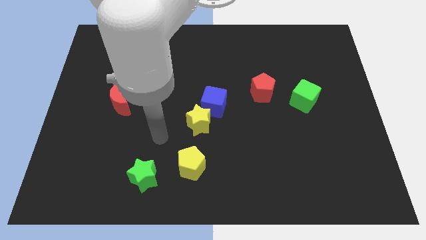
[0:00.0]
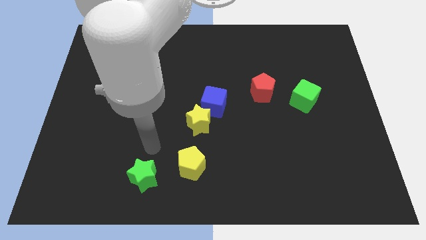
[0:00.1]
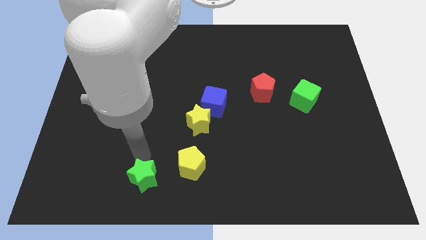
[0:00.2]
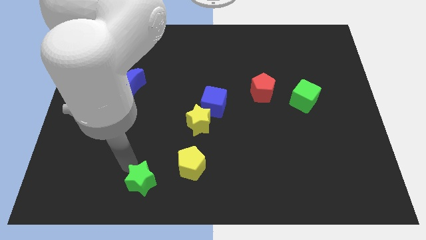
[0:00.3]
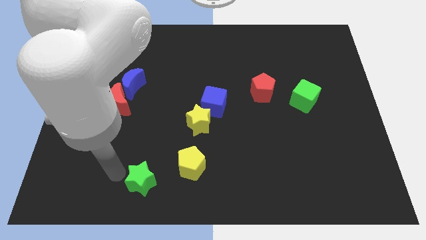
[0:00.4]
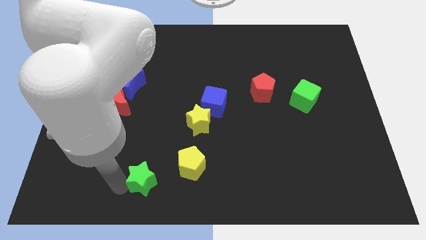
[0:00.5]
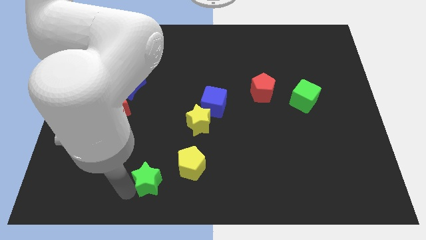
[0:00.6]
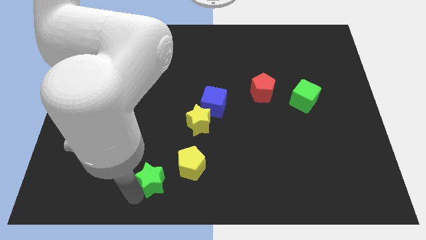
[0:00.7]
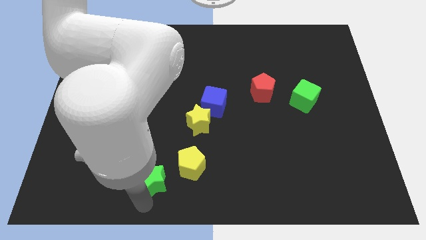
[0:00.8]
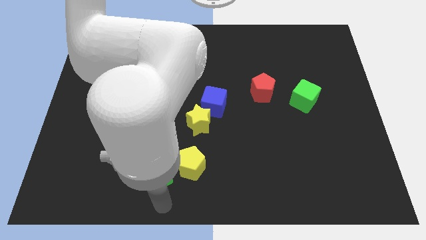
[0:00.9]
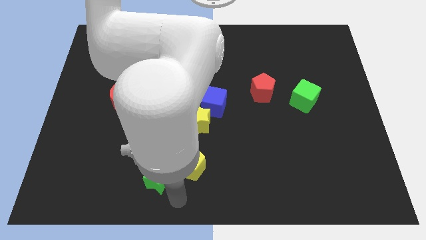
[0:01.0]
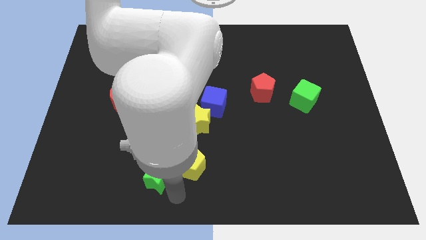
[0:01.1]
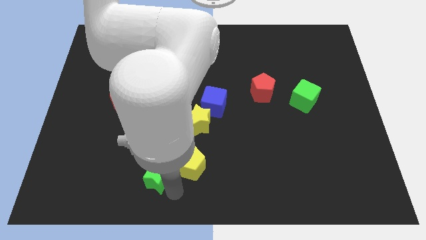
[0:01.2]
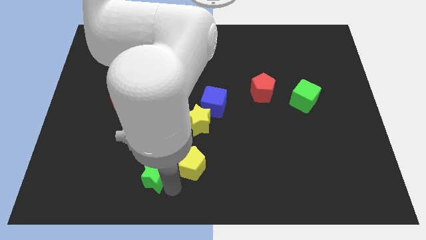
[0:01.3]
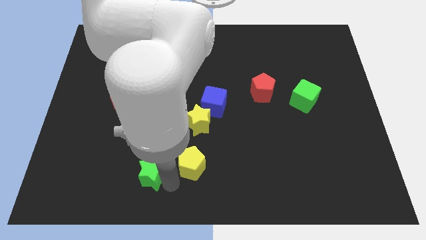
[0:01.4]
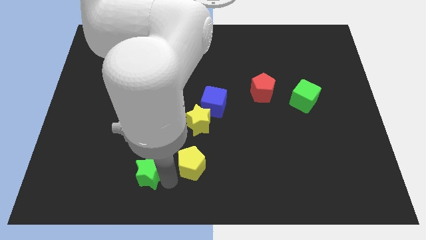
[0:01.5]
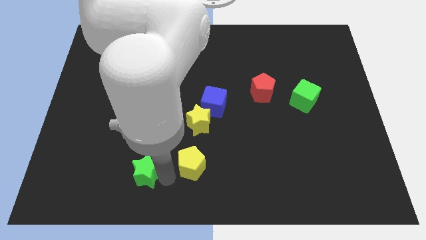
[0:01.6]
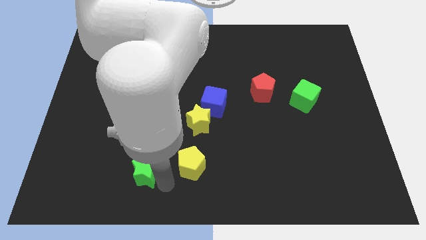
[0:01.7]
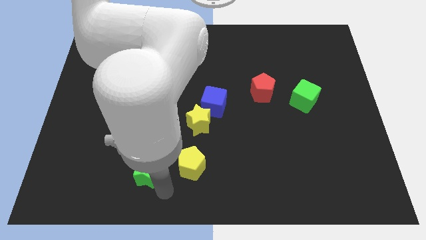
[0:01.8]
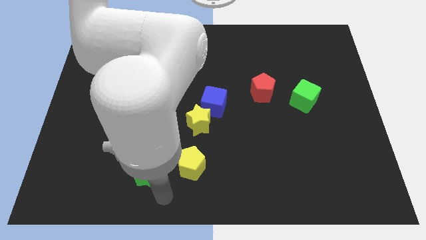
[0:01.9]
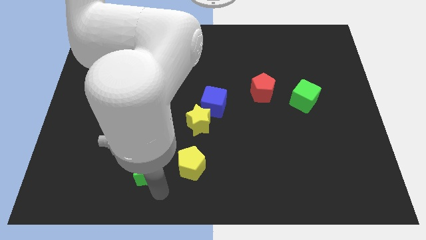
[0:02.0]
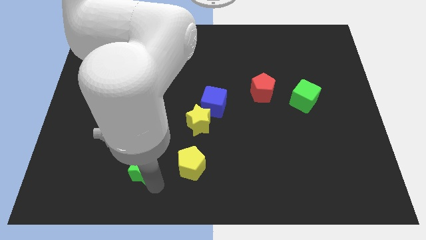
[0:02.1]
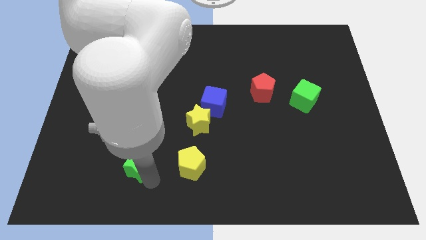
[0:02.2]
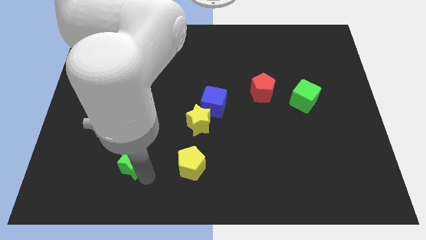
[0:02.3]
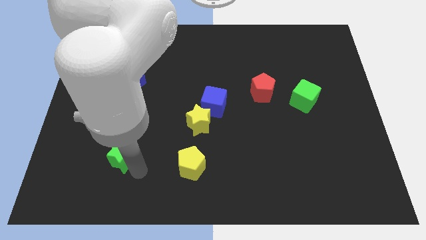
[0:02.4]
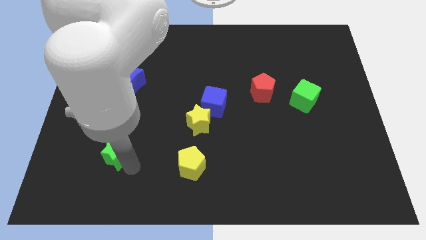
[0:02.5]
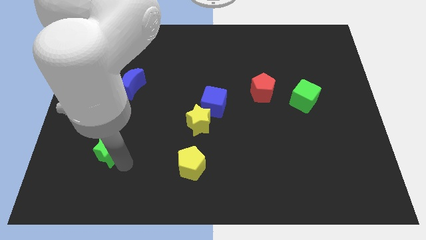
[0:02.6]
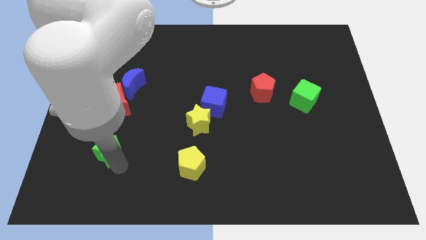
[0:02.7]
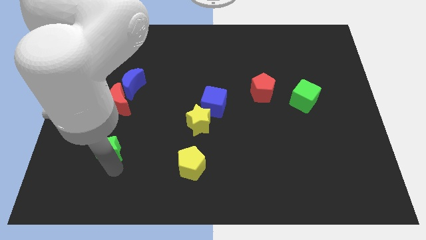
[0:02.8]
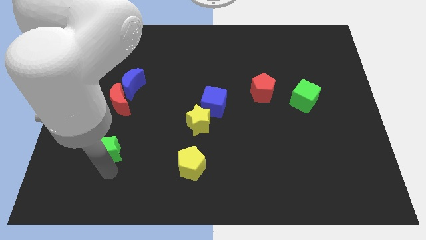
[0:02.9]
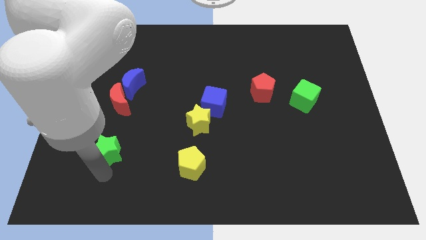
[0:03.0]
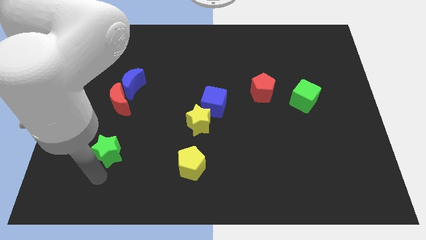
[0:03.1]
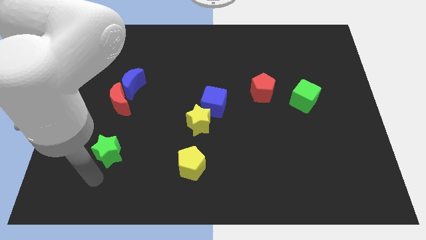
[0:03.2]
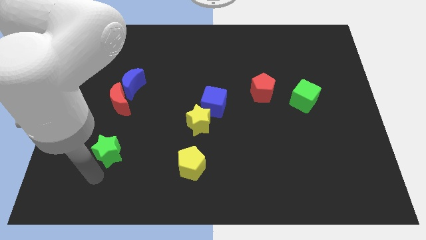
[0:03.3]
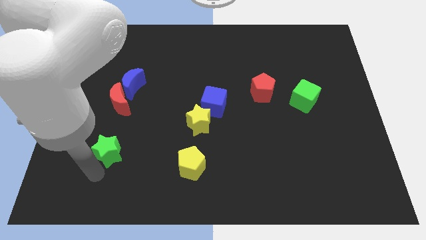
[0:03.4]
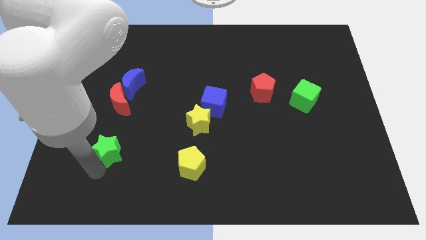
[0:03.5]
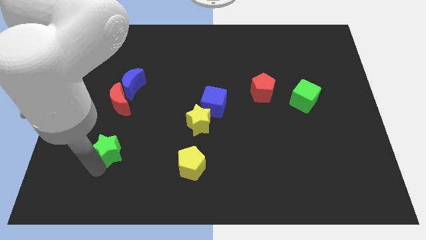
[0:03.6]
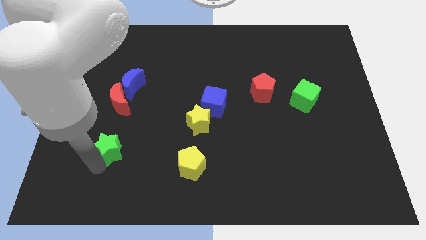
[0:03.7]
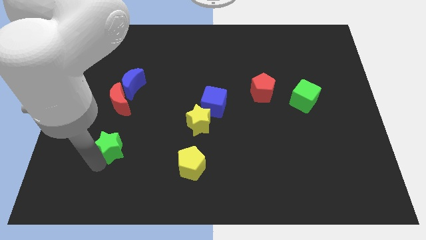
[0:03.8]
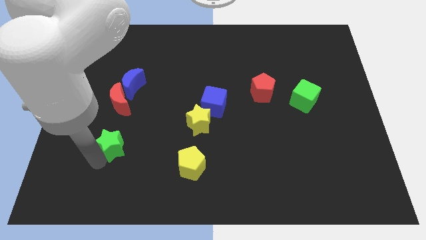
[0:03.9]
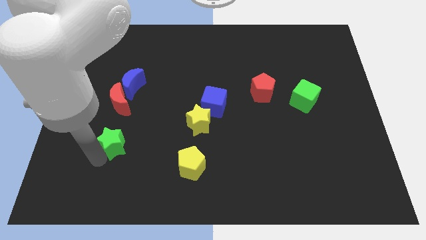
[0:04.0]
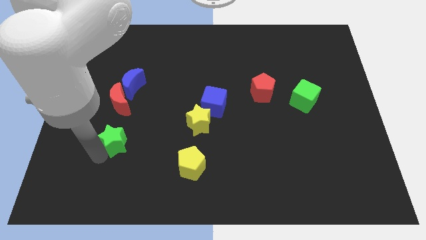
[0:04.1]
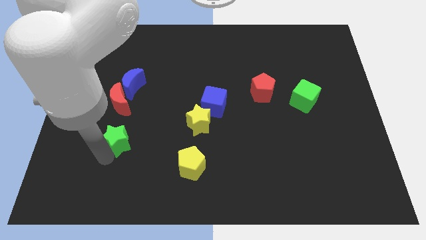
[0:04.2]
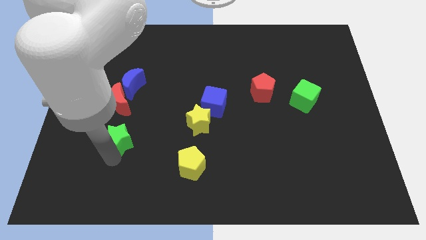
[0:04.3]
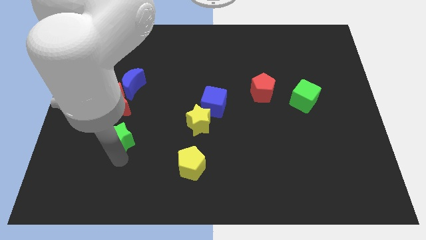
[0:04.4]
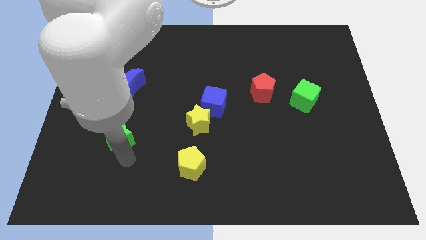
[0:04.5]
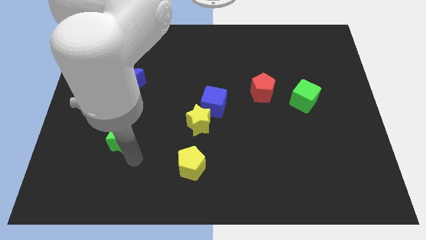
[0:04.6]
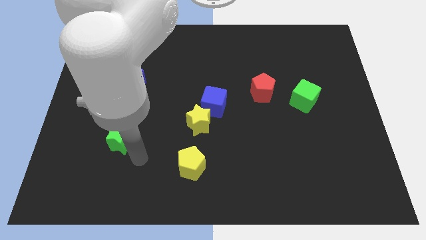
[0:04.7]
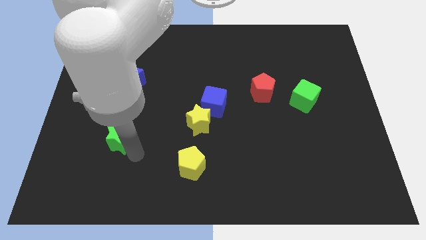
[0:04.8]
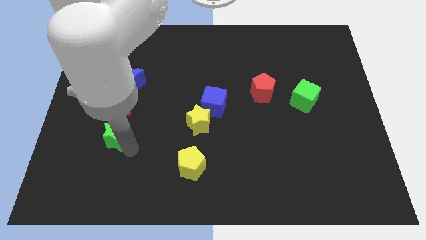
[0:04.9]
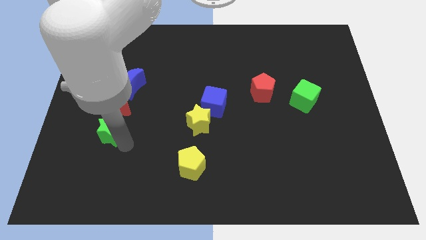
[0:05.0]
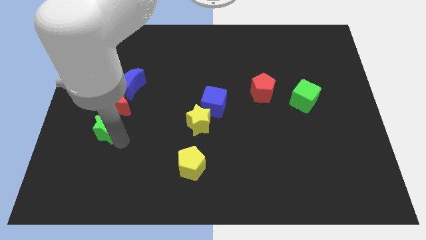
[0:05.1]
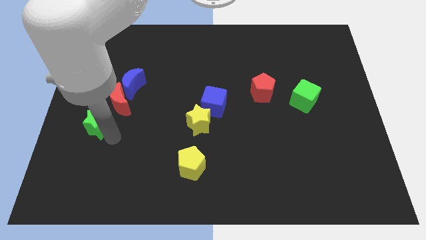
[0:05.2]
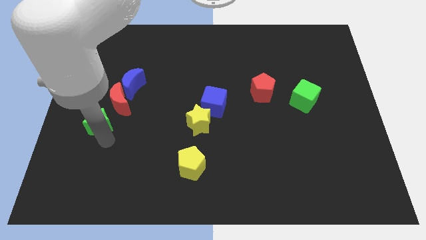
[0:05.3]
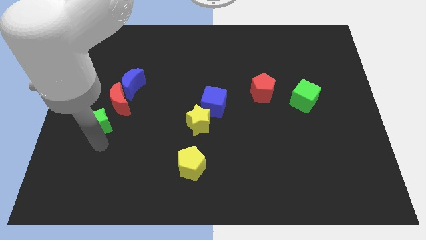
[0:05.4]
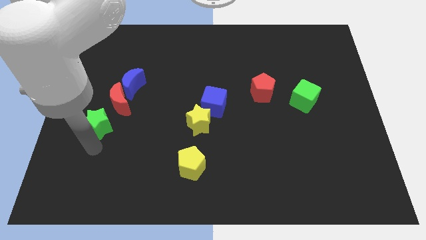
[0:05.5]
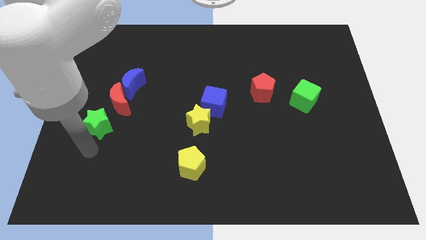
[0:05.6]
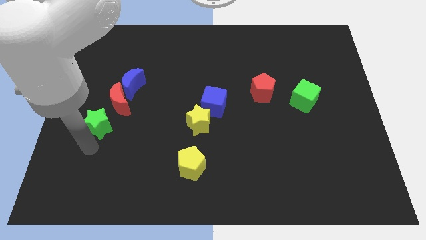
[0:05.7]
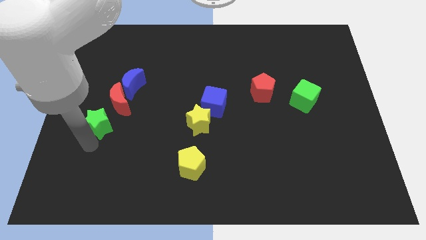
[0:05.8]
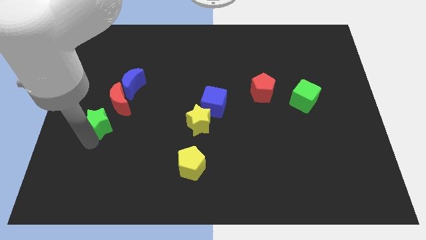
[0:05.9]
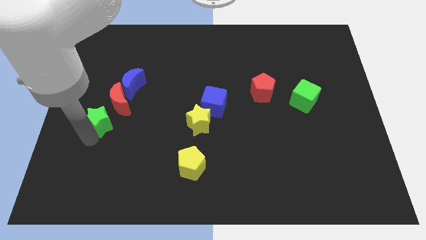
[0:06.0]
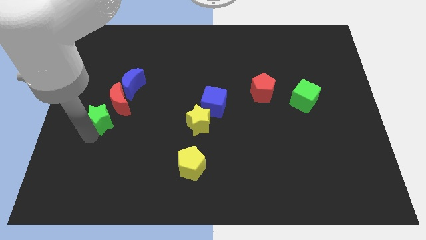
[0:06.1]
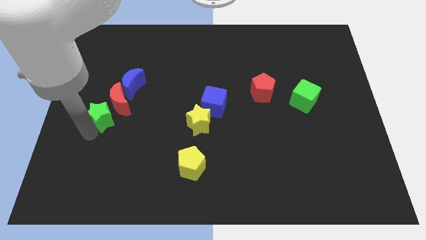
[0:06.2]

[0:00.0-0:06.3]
slide the green star to the bottom left side of the blue moon

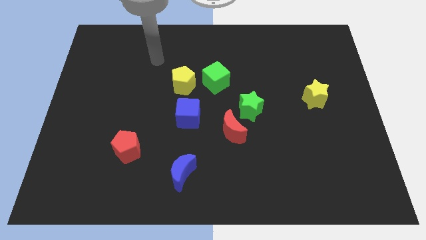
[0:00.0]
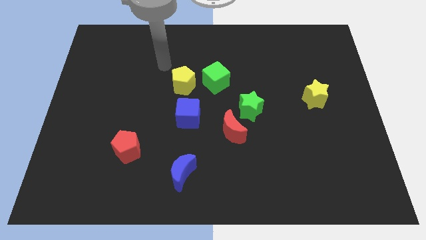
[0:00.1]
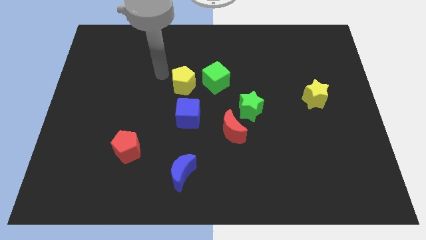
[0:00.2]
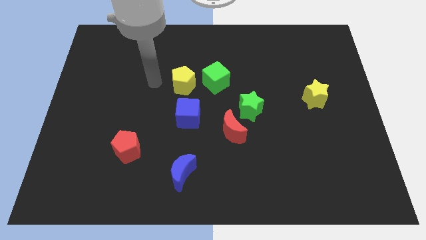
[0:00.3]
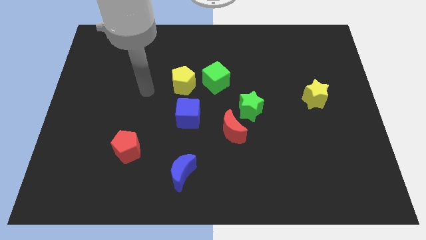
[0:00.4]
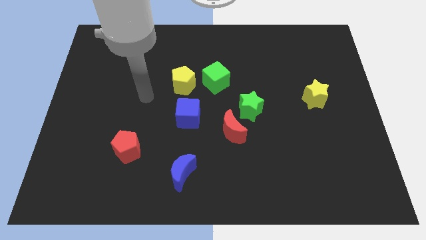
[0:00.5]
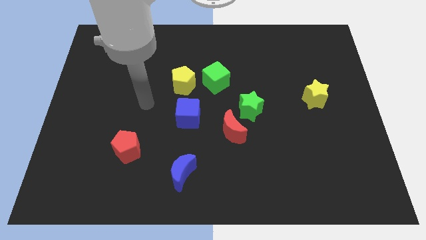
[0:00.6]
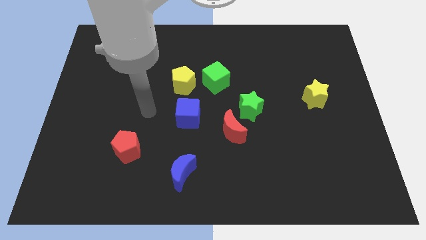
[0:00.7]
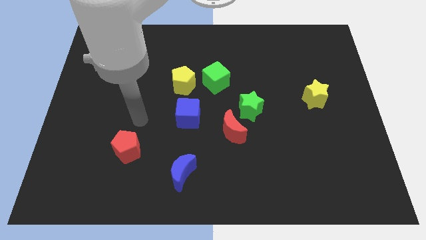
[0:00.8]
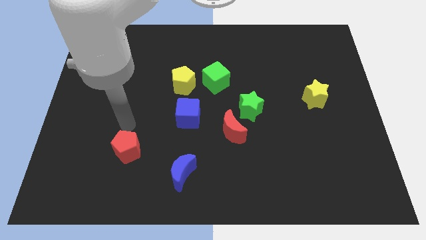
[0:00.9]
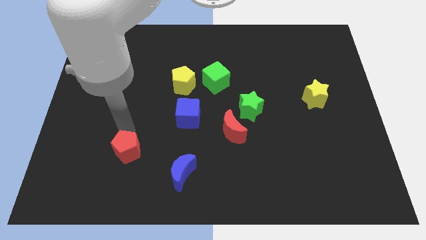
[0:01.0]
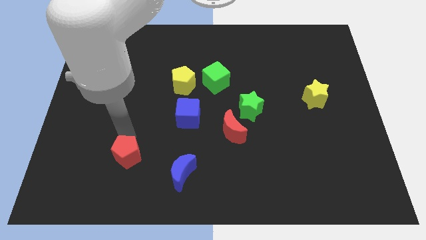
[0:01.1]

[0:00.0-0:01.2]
slide the red pentagon just left of the blue moon
